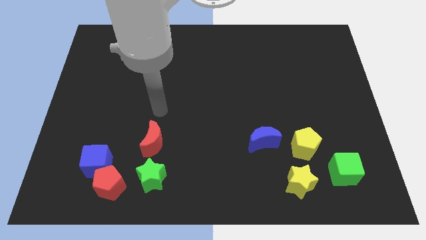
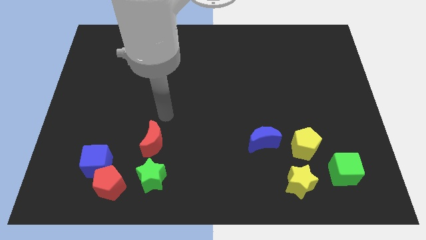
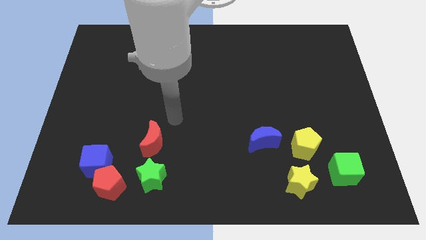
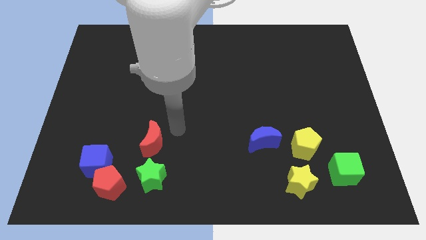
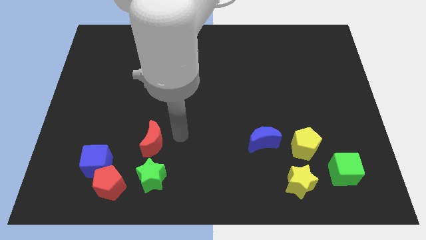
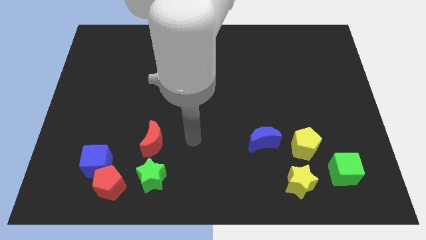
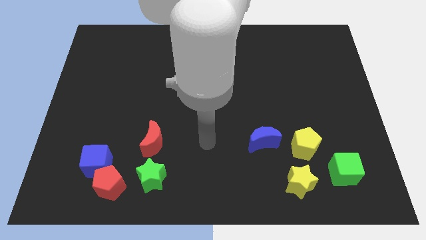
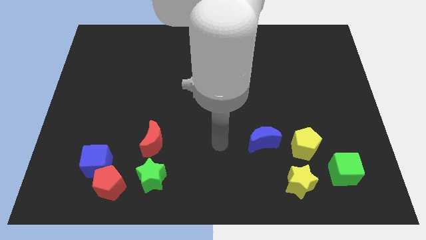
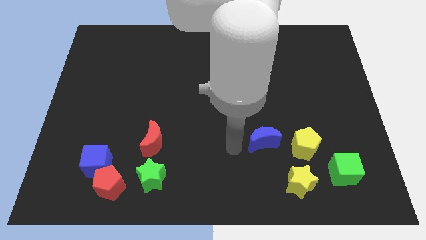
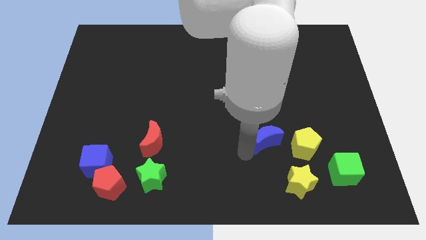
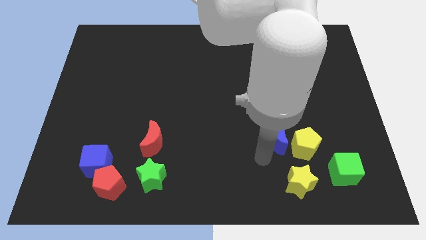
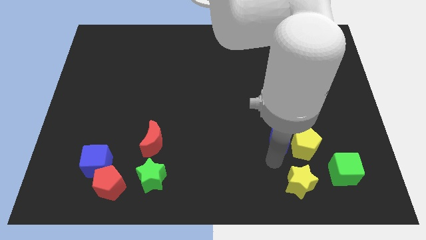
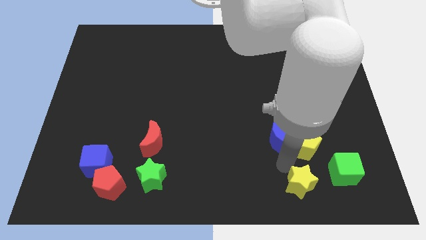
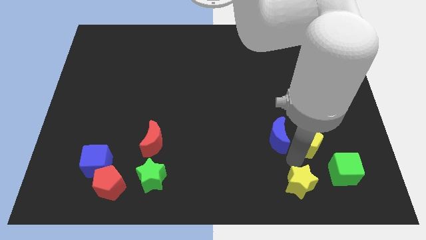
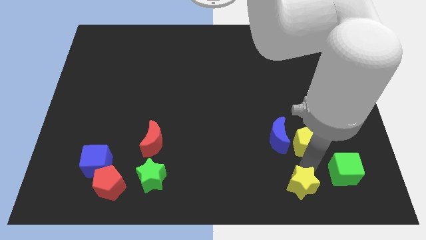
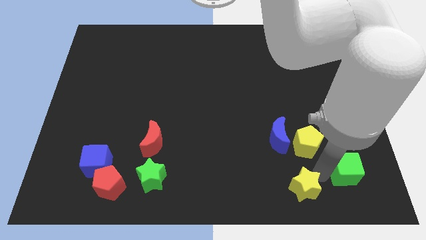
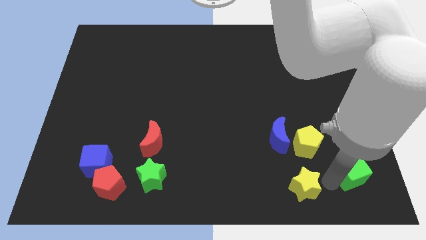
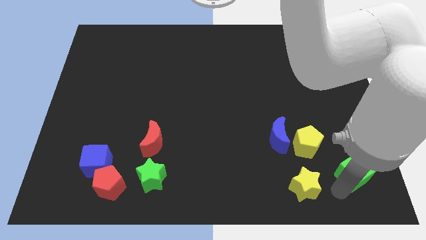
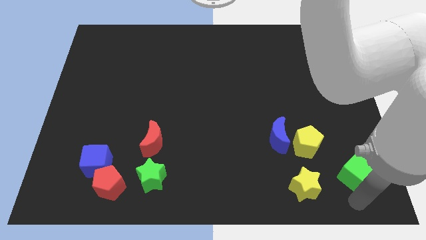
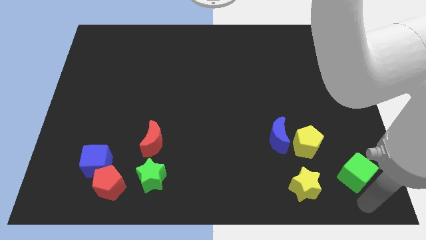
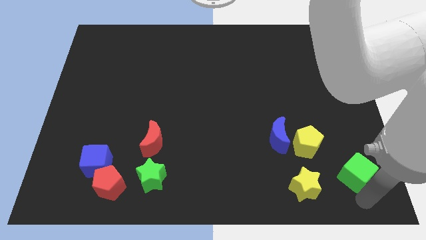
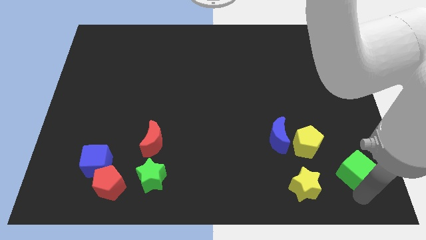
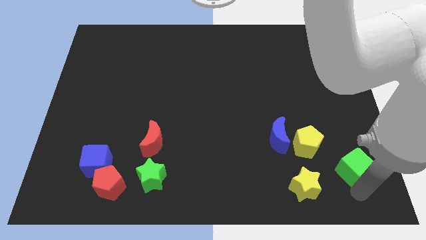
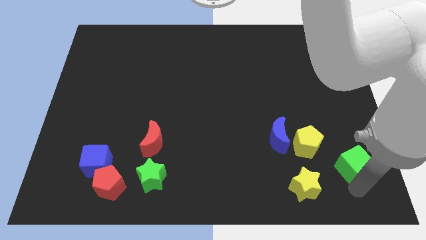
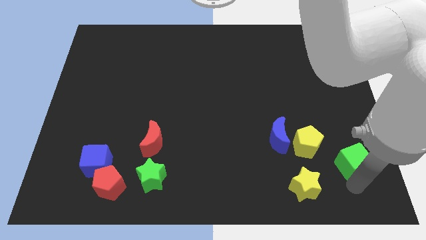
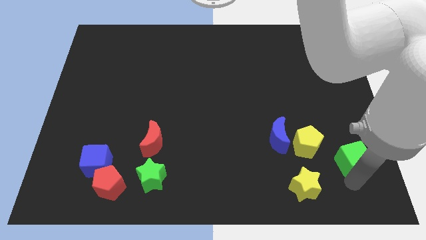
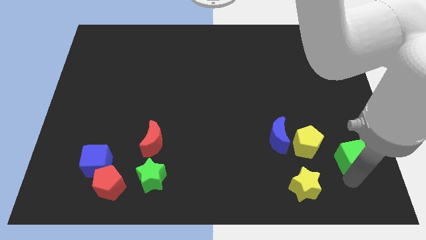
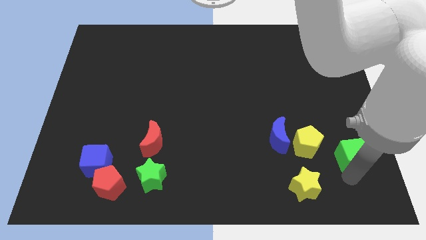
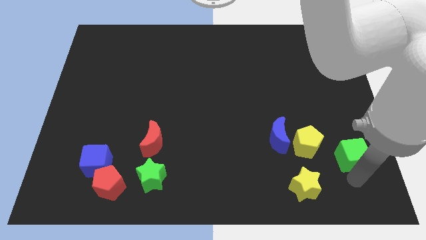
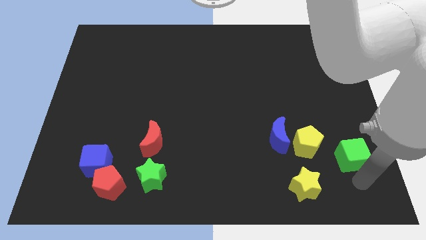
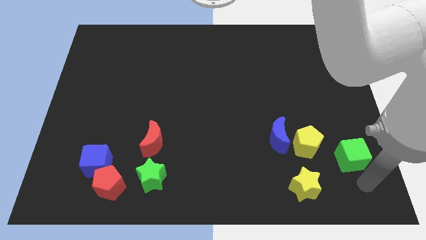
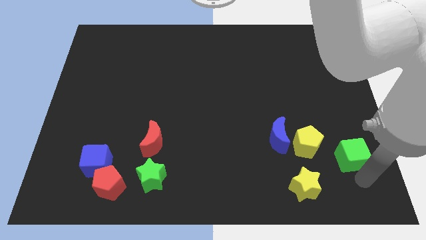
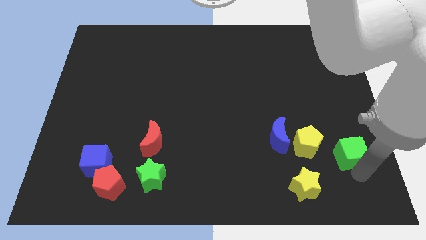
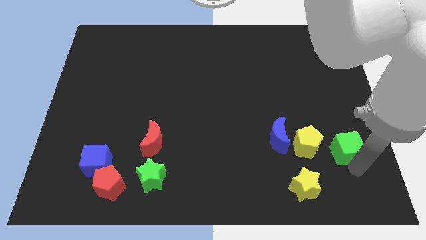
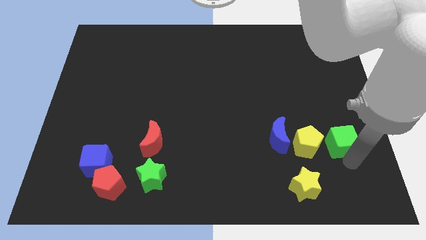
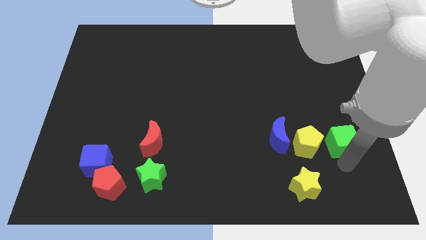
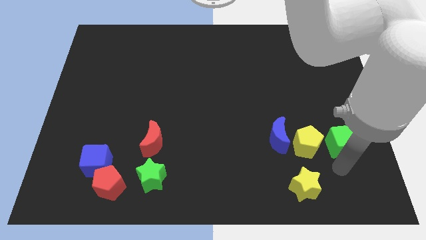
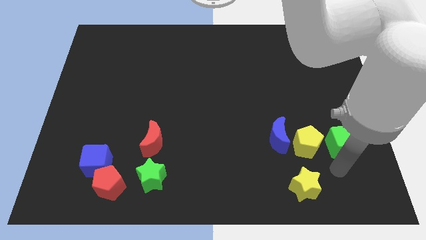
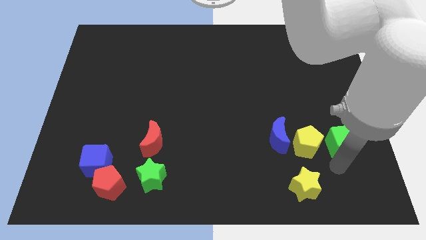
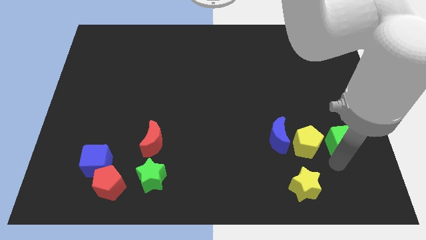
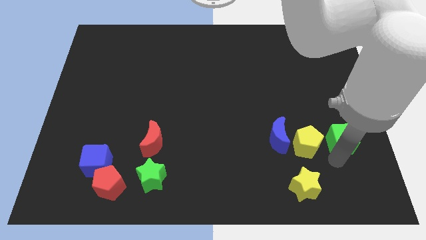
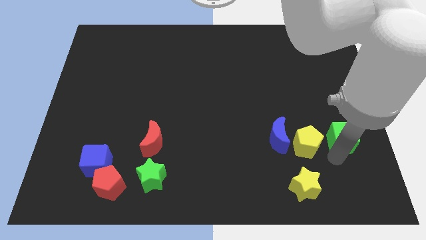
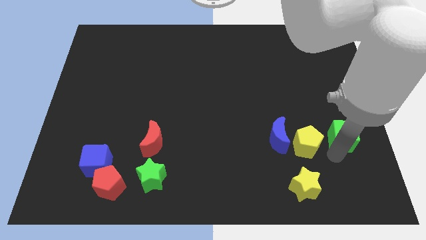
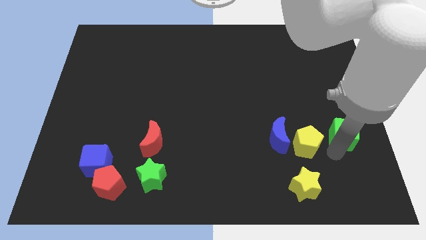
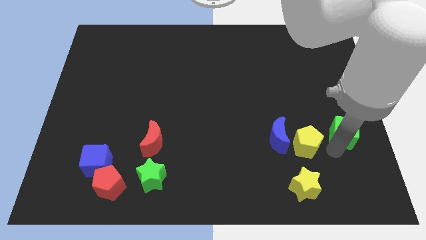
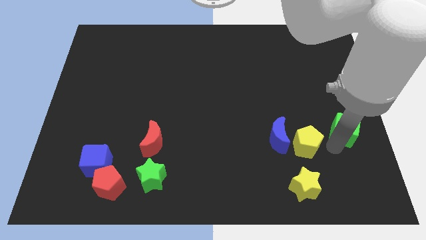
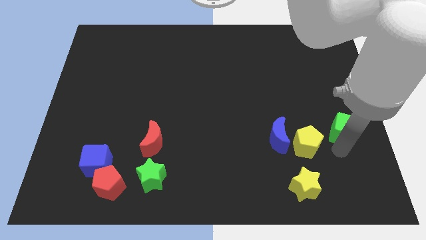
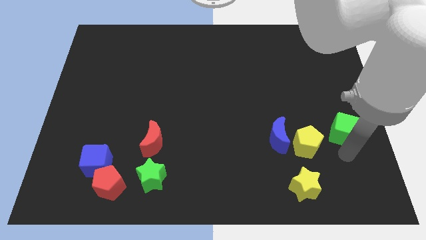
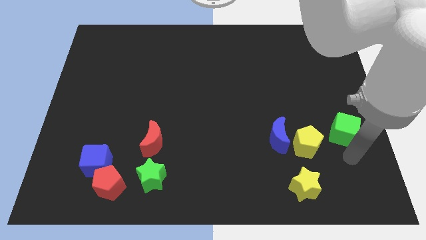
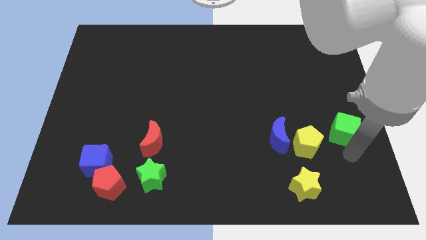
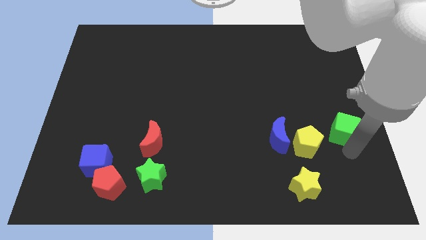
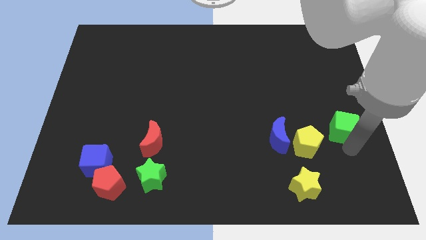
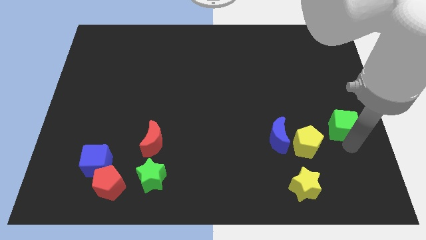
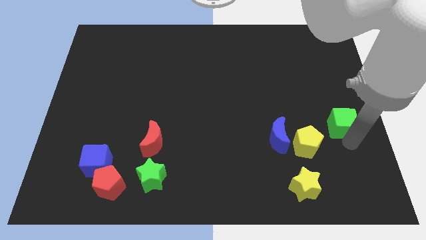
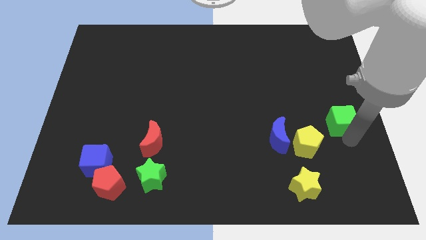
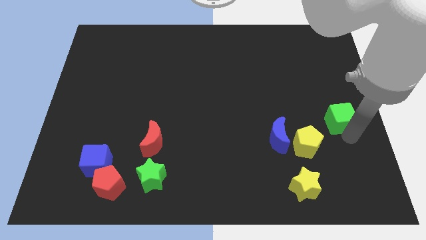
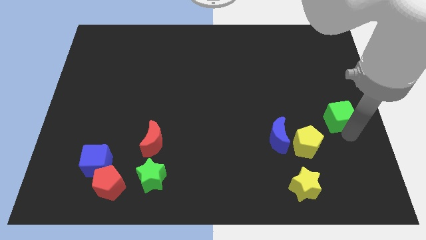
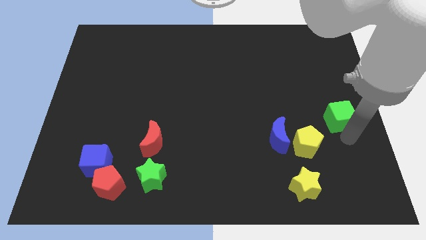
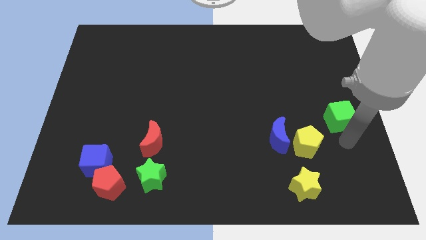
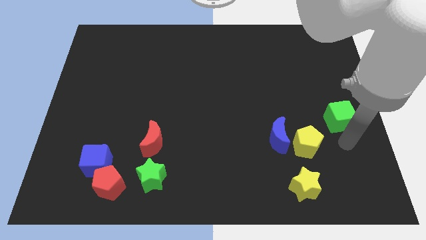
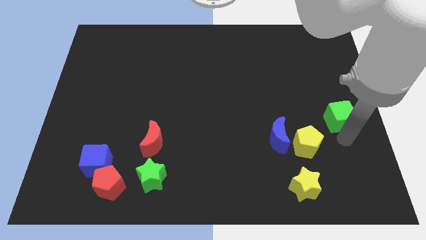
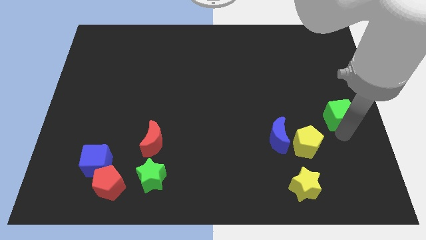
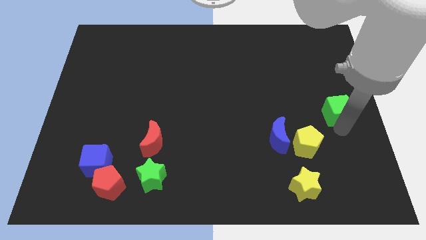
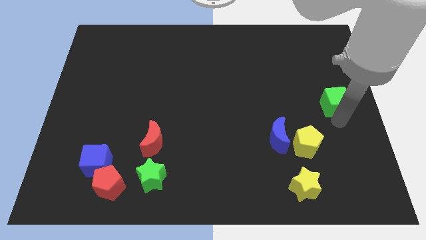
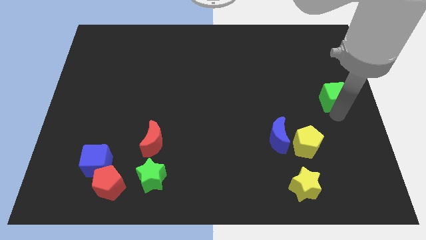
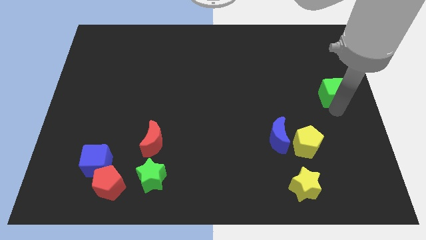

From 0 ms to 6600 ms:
move the green cube upwards

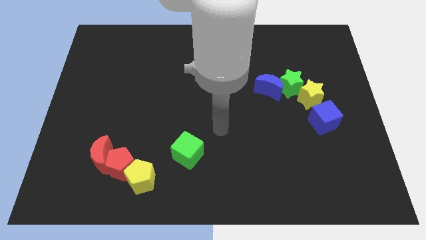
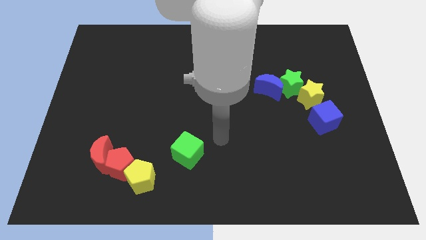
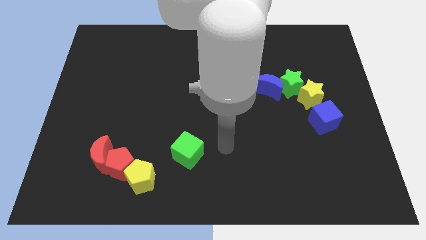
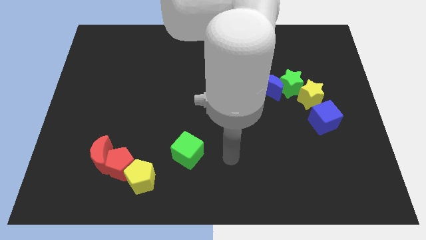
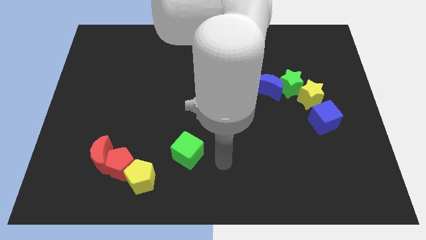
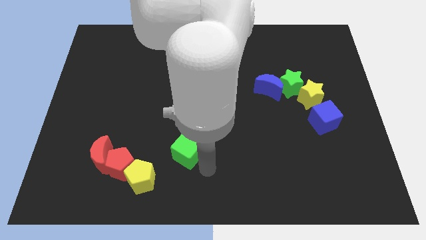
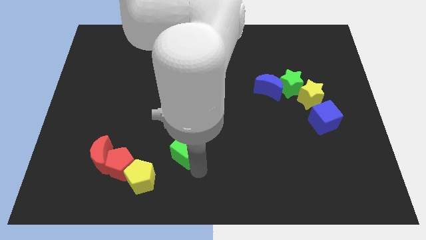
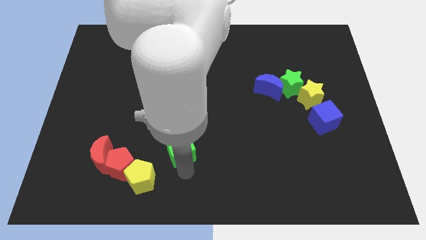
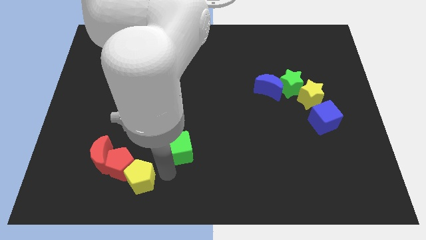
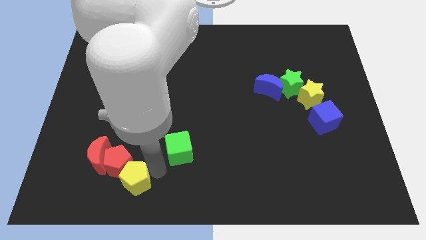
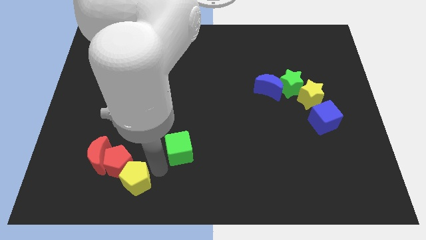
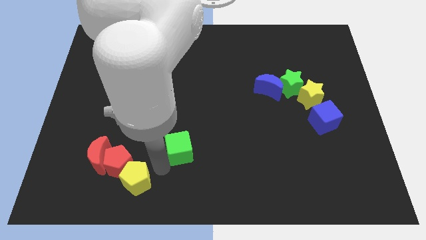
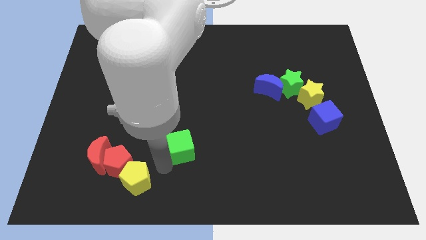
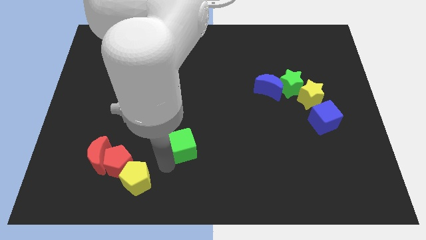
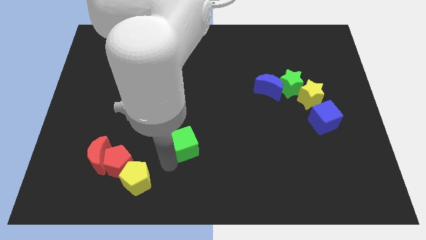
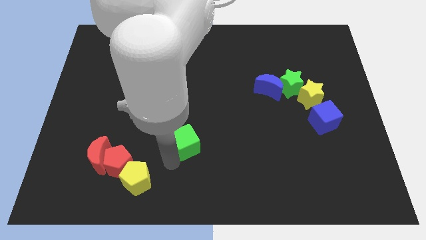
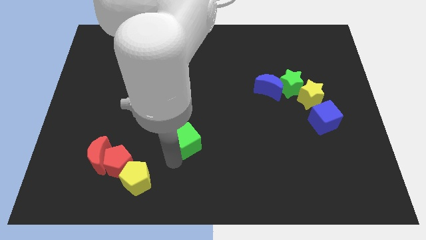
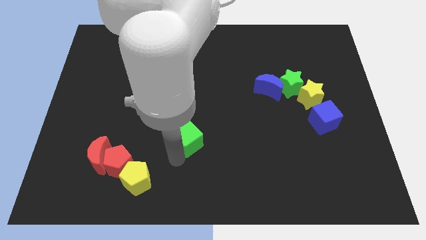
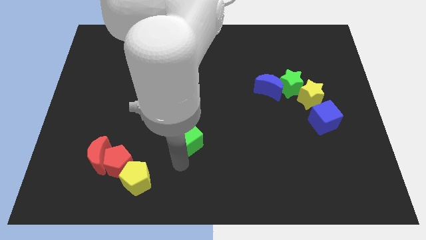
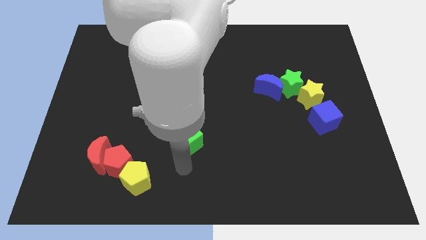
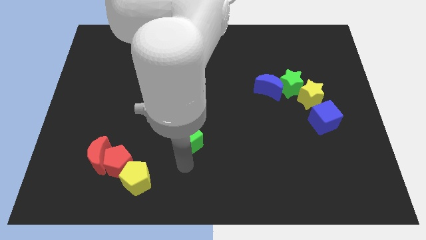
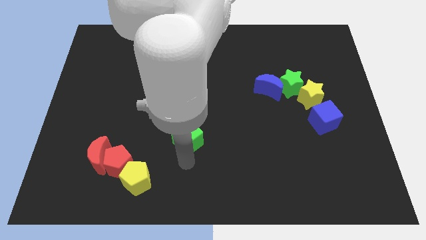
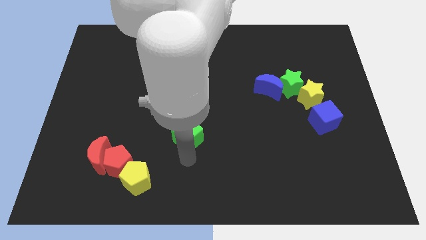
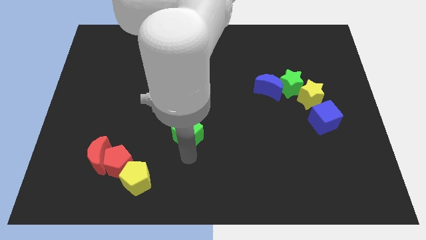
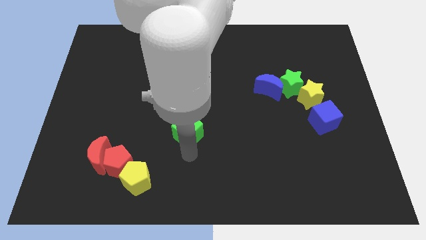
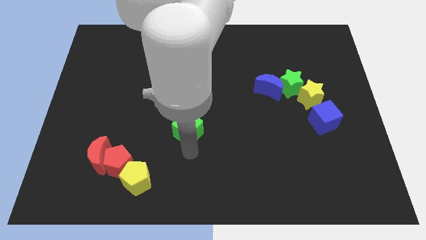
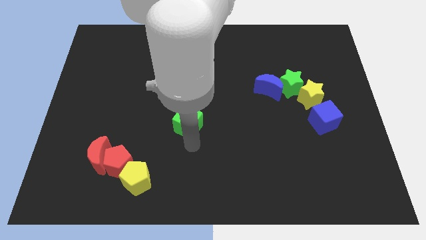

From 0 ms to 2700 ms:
slide the green cube up a bit
